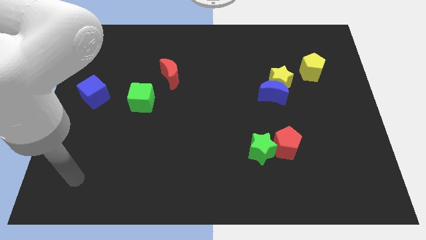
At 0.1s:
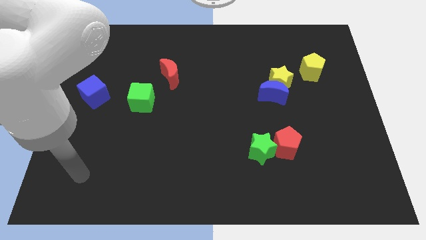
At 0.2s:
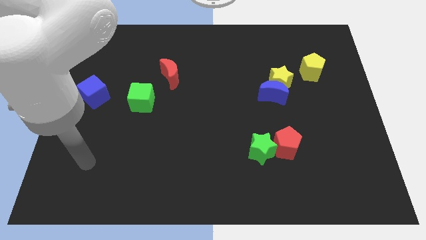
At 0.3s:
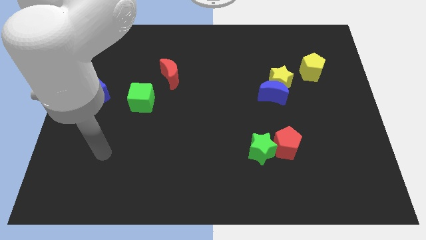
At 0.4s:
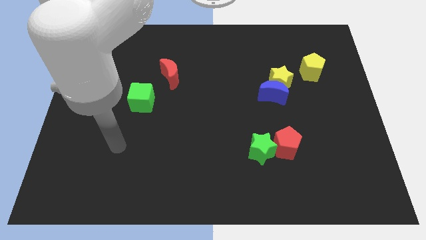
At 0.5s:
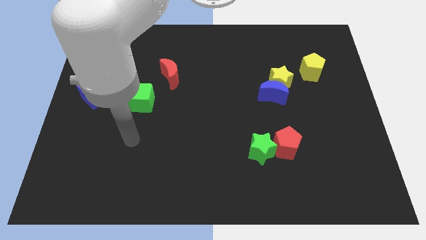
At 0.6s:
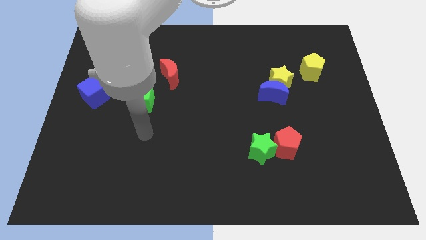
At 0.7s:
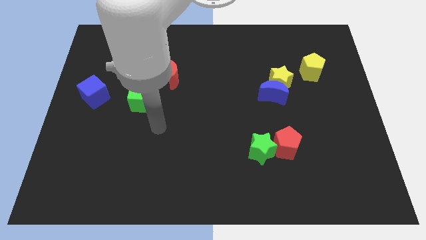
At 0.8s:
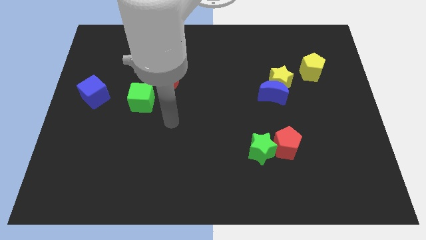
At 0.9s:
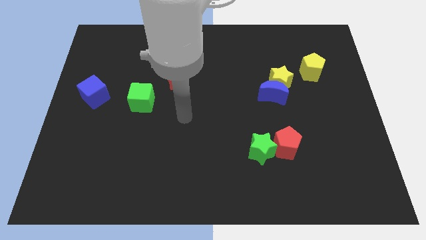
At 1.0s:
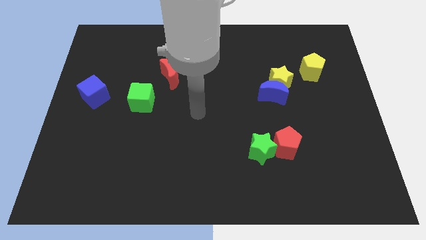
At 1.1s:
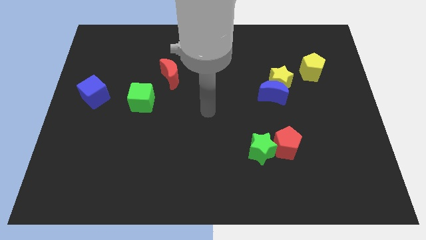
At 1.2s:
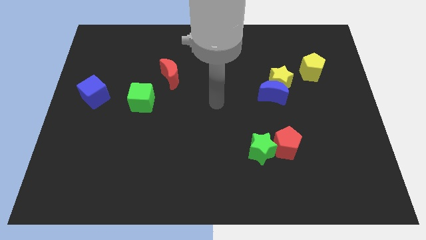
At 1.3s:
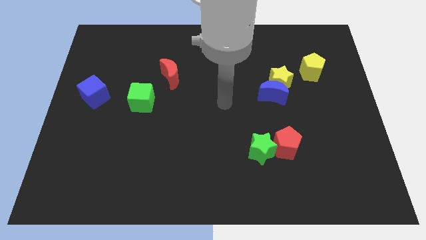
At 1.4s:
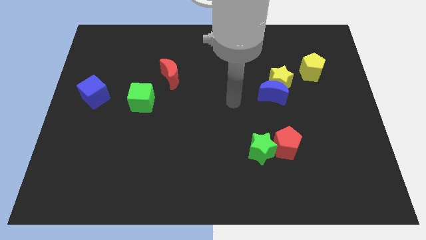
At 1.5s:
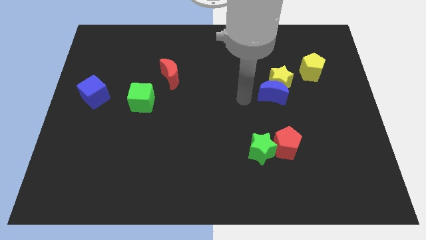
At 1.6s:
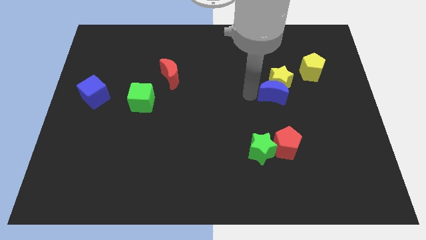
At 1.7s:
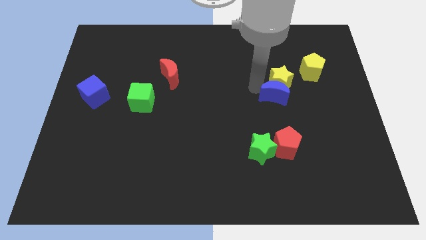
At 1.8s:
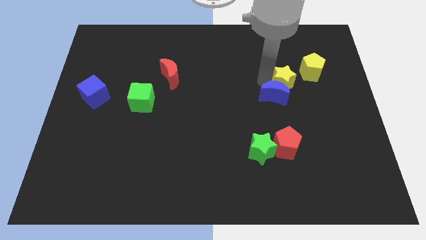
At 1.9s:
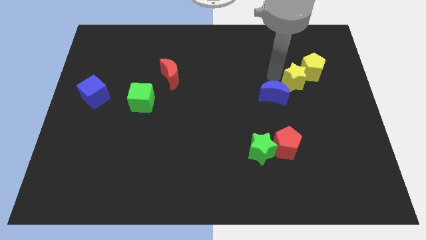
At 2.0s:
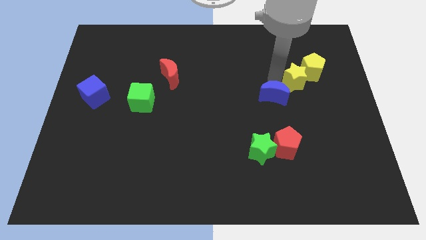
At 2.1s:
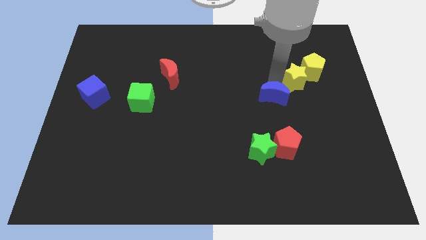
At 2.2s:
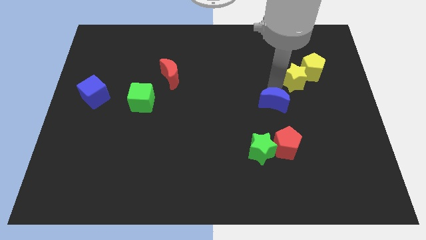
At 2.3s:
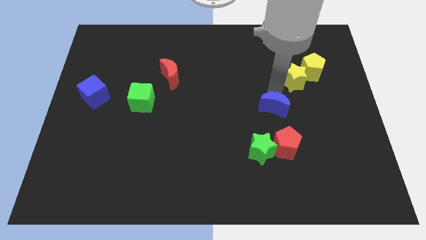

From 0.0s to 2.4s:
separate the blue moon from the yellow star

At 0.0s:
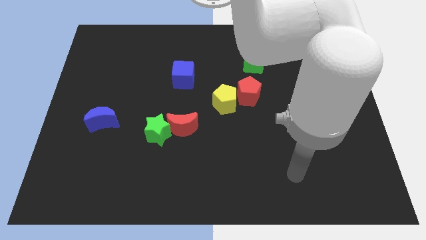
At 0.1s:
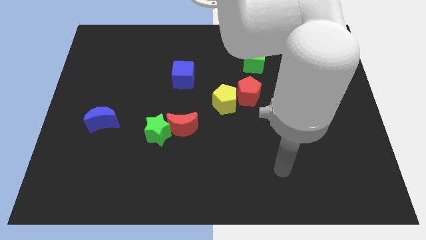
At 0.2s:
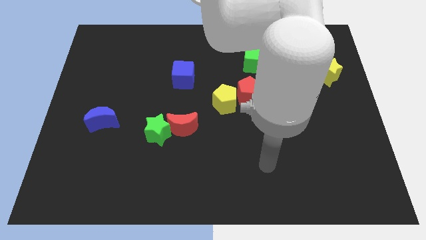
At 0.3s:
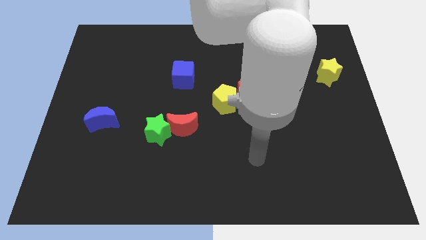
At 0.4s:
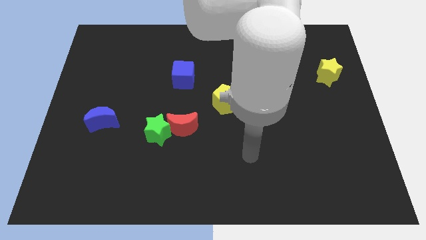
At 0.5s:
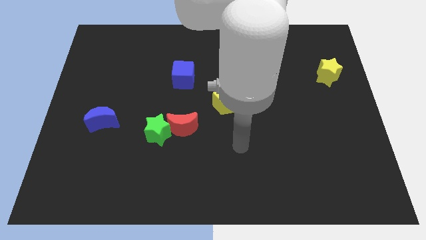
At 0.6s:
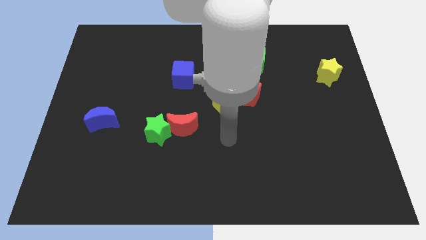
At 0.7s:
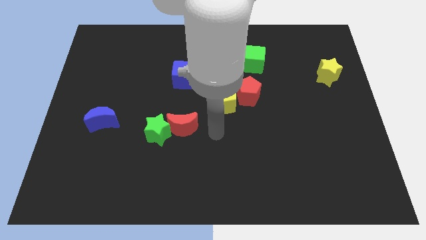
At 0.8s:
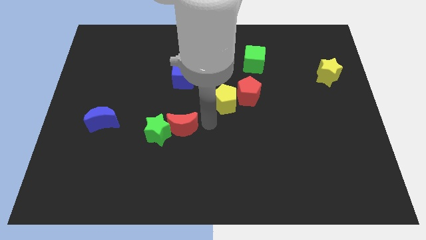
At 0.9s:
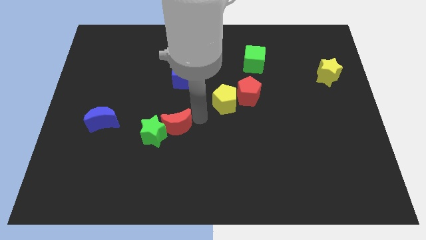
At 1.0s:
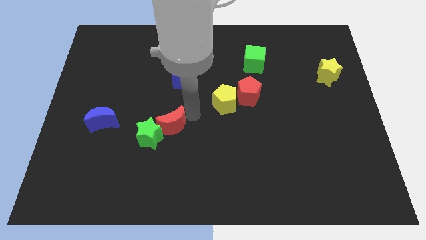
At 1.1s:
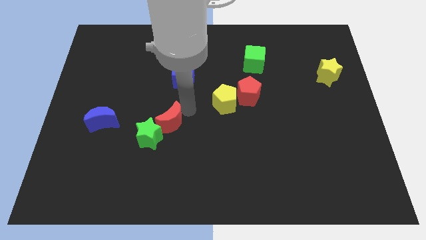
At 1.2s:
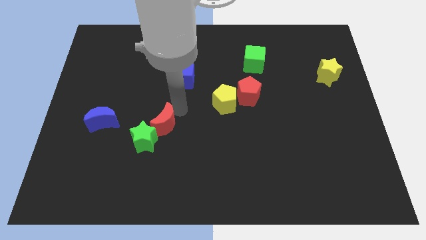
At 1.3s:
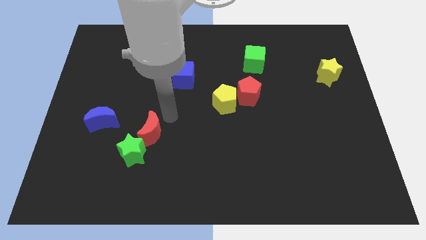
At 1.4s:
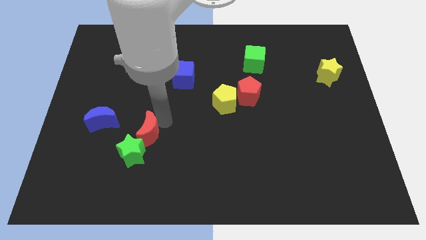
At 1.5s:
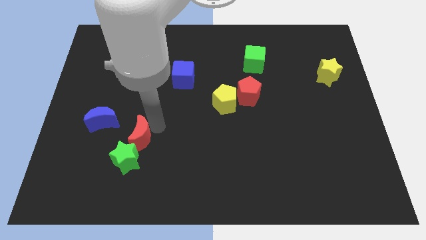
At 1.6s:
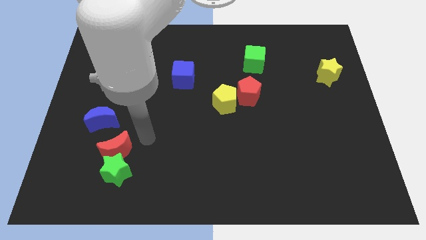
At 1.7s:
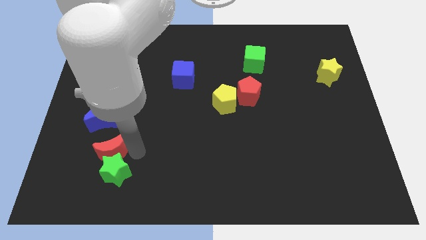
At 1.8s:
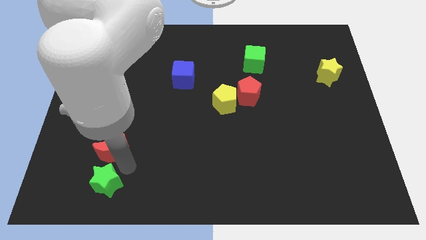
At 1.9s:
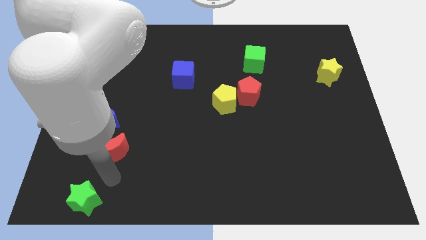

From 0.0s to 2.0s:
move the red moon away from the green star

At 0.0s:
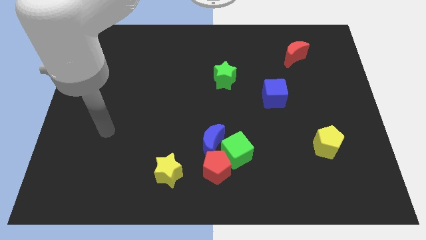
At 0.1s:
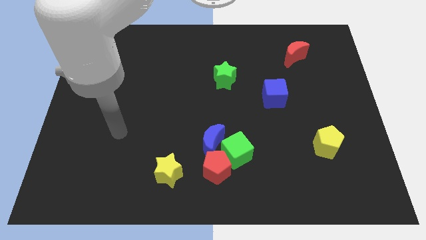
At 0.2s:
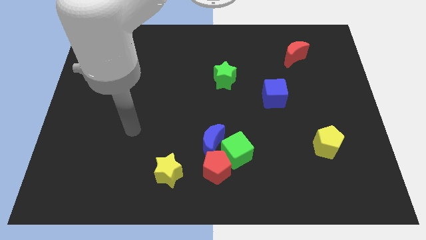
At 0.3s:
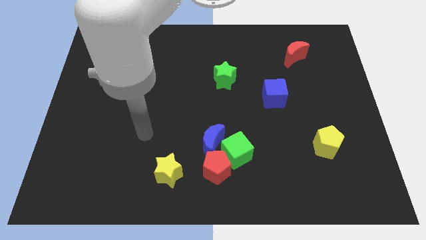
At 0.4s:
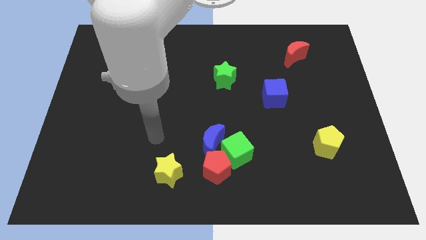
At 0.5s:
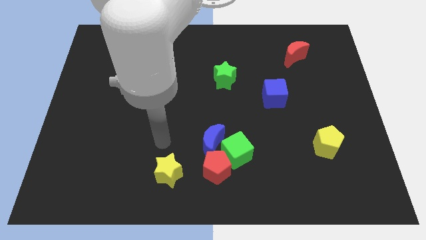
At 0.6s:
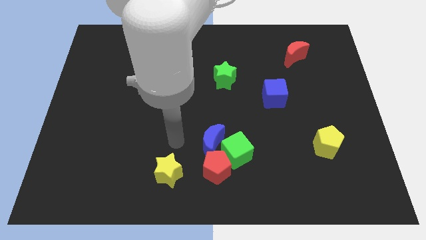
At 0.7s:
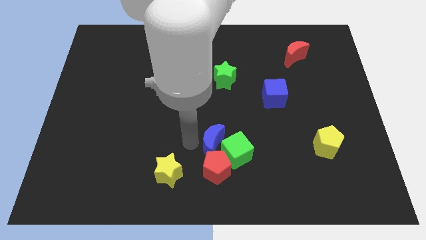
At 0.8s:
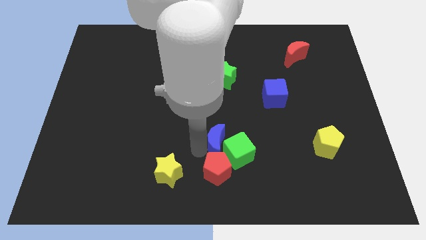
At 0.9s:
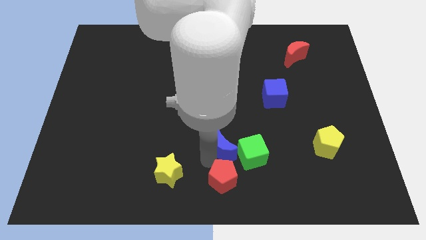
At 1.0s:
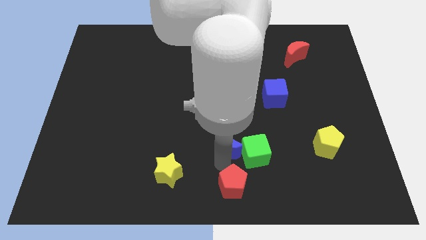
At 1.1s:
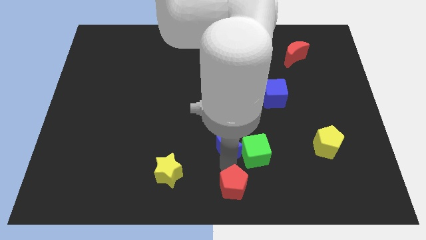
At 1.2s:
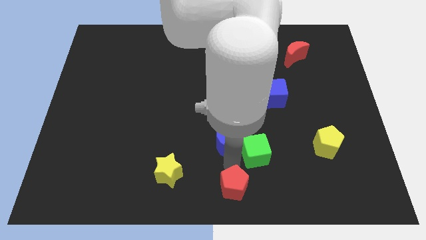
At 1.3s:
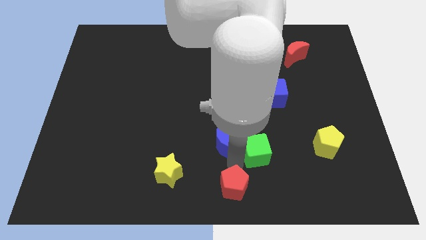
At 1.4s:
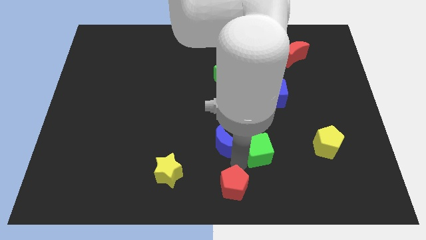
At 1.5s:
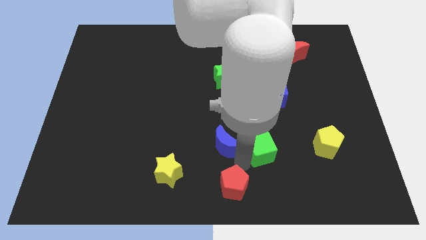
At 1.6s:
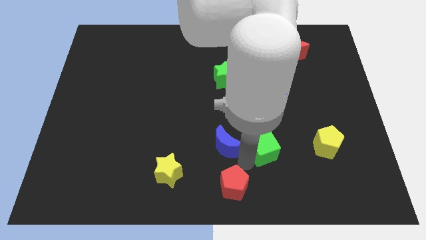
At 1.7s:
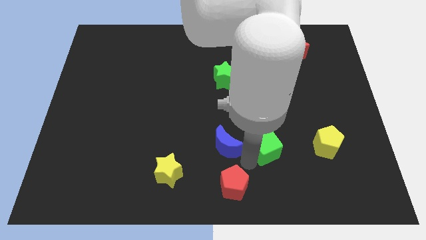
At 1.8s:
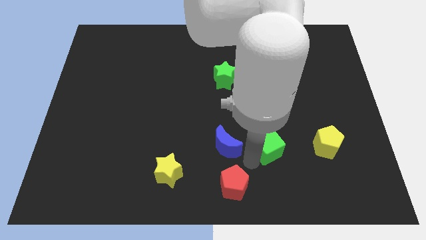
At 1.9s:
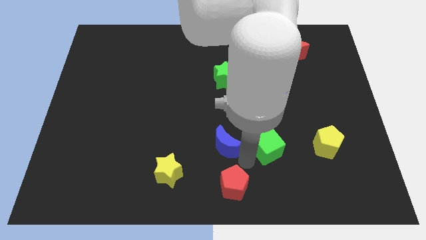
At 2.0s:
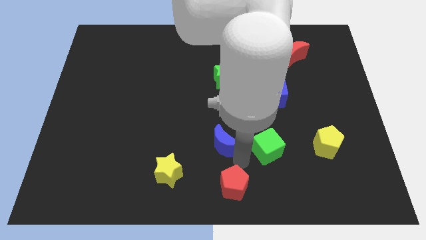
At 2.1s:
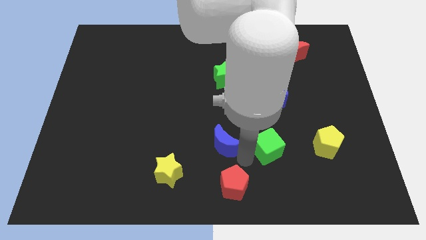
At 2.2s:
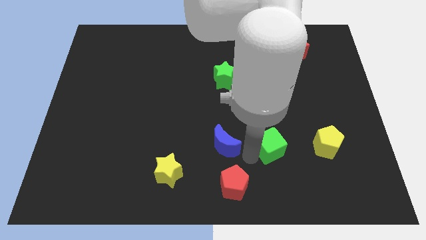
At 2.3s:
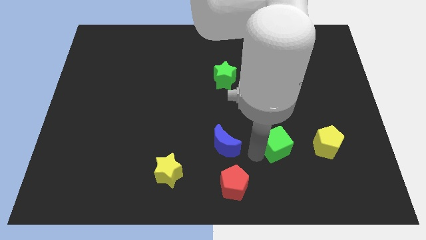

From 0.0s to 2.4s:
separate the green cube from the blue moon and red pentagon

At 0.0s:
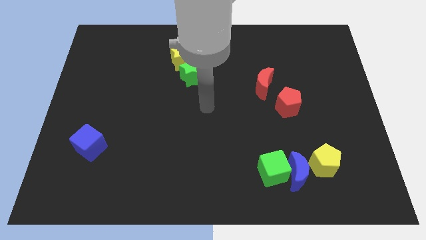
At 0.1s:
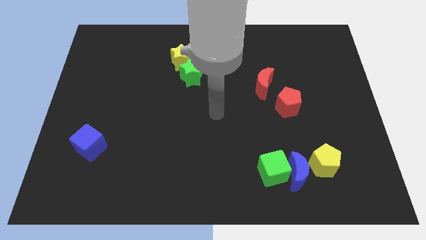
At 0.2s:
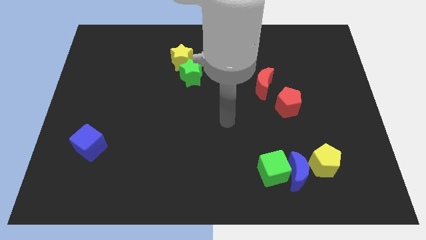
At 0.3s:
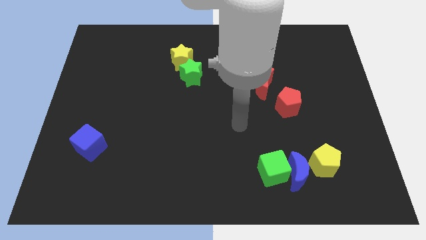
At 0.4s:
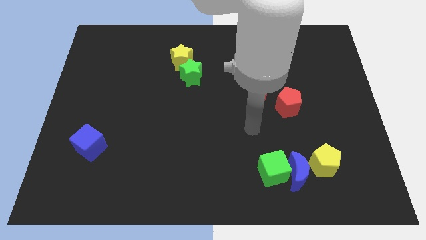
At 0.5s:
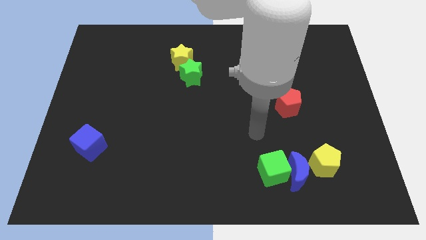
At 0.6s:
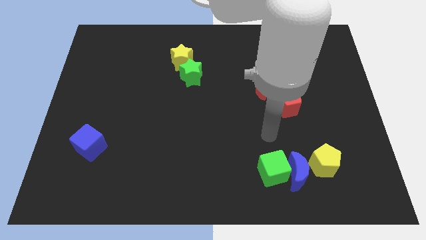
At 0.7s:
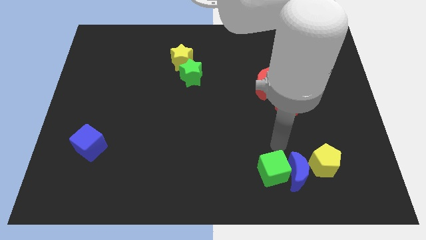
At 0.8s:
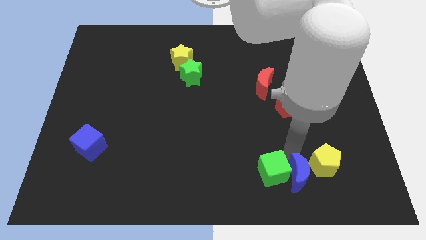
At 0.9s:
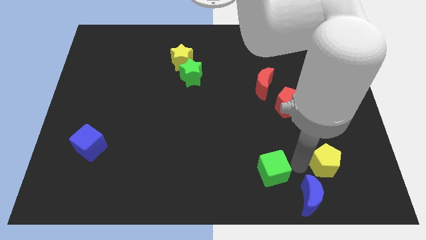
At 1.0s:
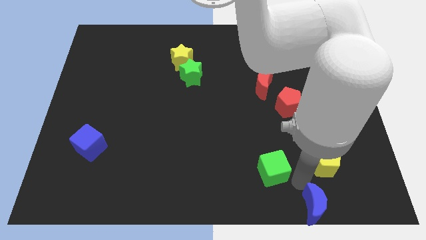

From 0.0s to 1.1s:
move the green cube away from the blue moon

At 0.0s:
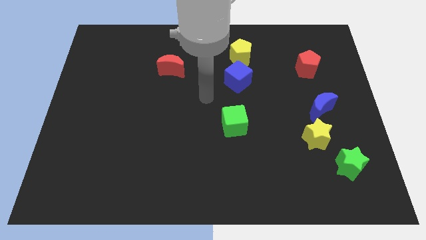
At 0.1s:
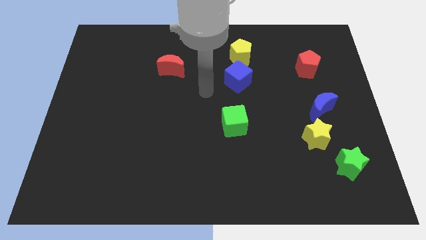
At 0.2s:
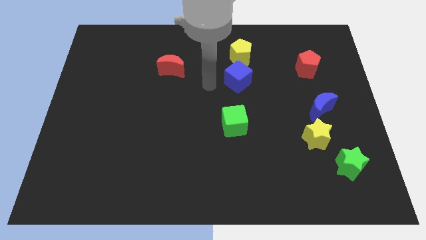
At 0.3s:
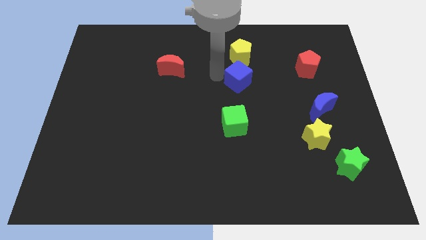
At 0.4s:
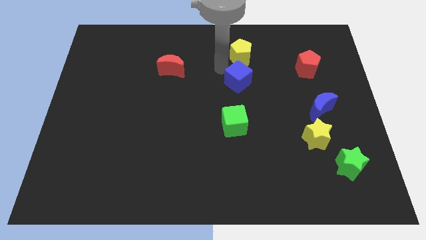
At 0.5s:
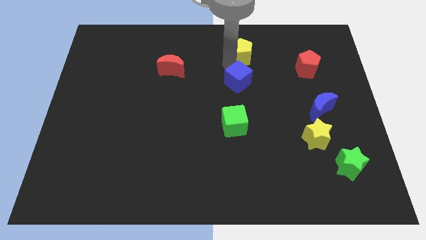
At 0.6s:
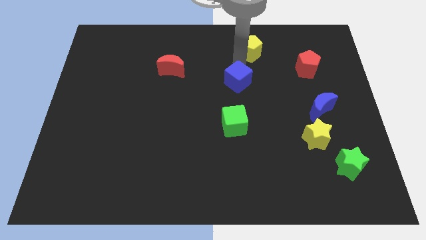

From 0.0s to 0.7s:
move the blue cube away from the yellow pentagon

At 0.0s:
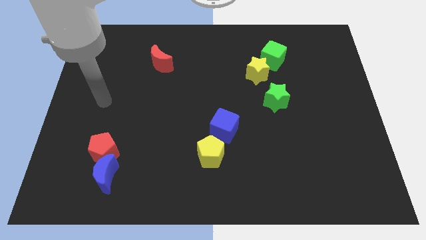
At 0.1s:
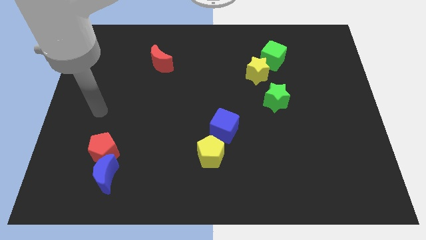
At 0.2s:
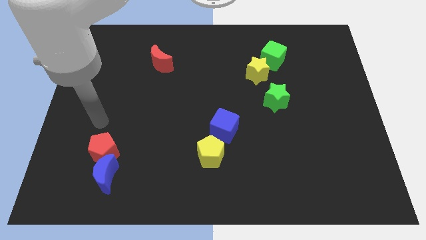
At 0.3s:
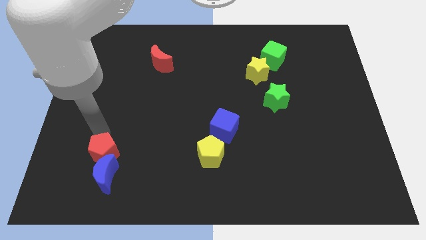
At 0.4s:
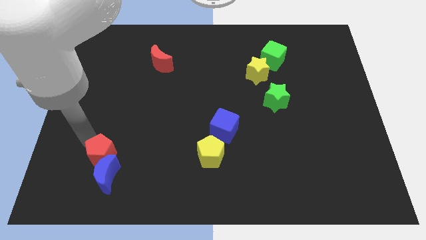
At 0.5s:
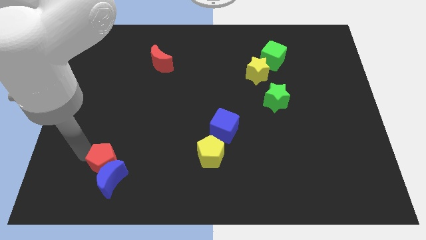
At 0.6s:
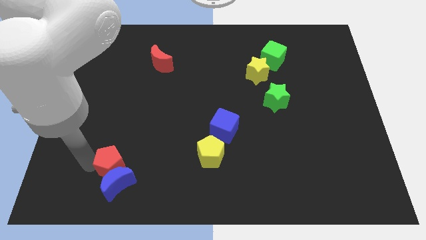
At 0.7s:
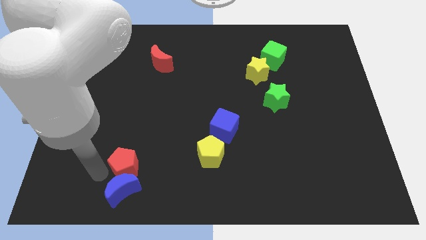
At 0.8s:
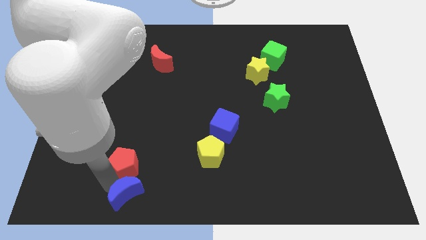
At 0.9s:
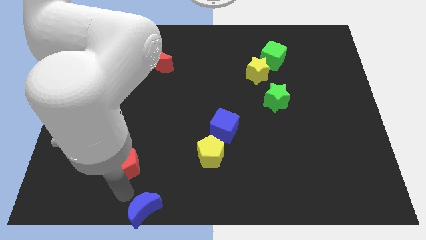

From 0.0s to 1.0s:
move the red pentagon away from the blue moon
